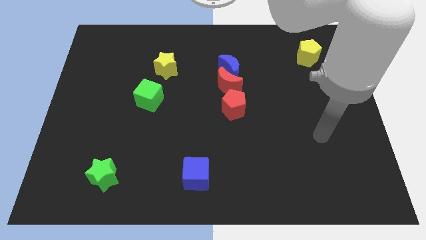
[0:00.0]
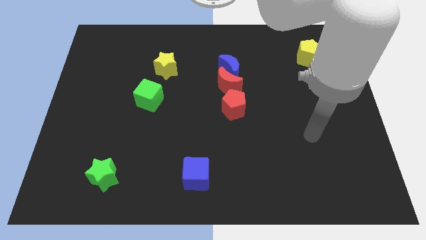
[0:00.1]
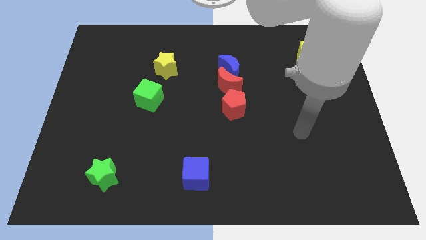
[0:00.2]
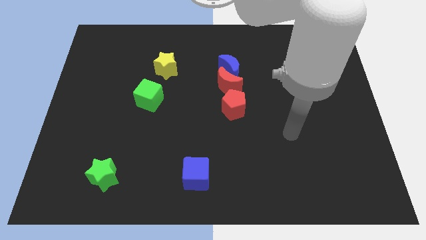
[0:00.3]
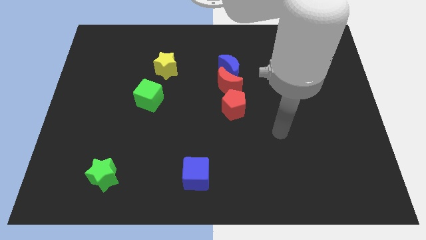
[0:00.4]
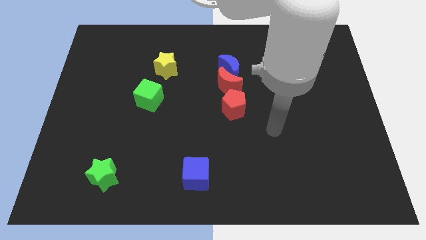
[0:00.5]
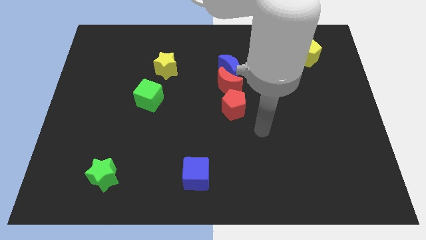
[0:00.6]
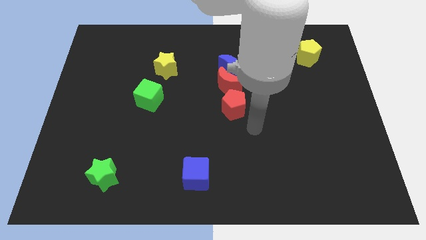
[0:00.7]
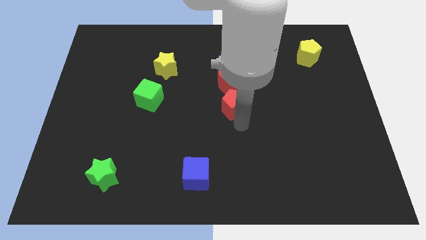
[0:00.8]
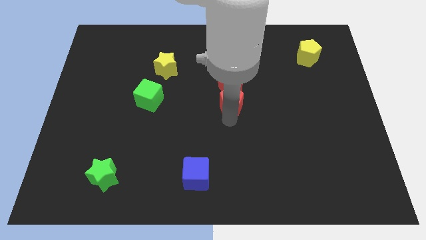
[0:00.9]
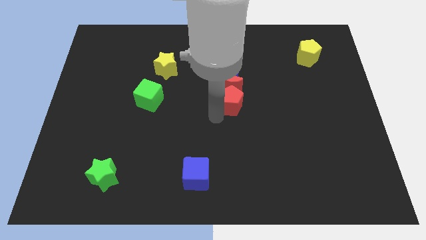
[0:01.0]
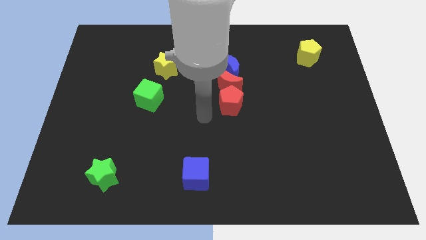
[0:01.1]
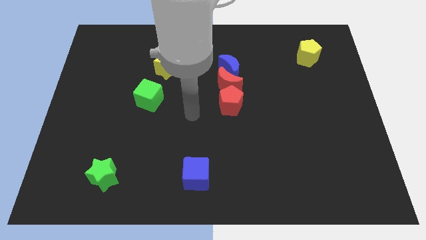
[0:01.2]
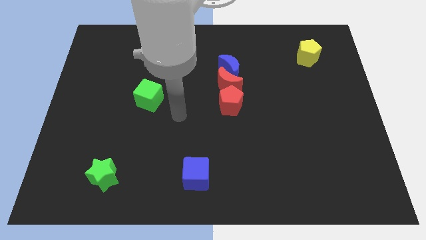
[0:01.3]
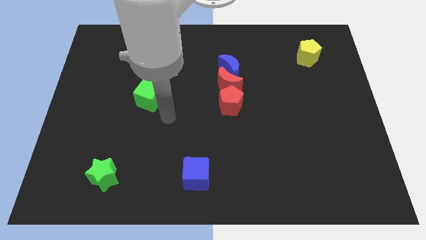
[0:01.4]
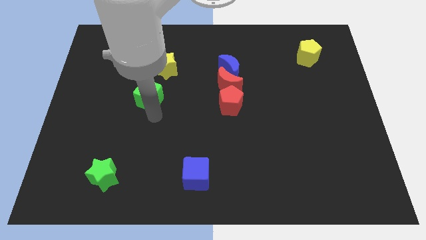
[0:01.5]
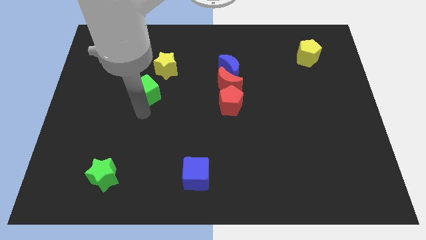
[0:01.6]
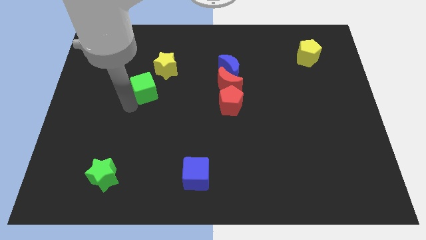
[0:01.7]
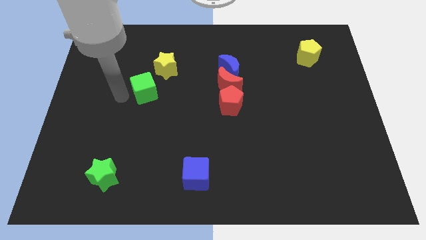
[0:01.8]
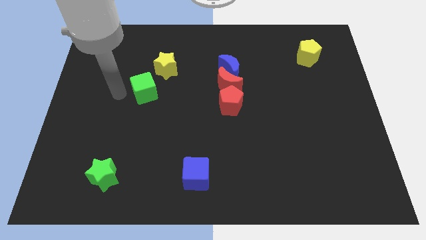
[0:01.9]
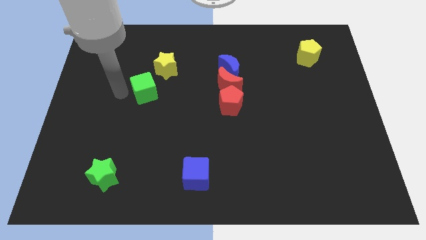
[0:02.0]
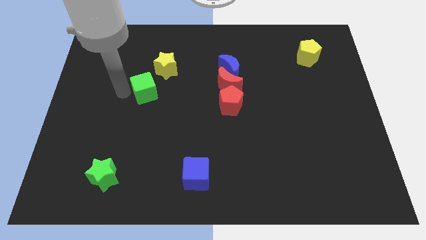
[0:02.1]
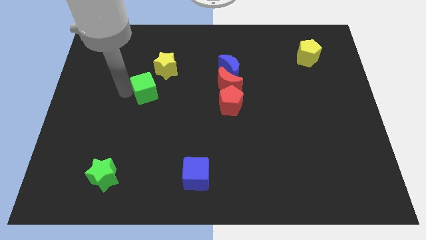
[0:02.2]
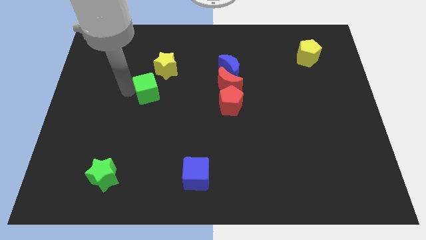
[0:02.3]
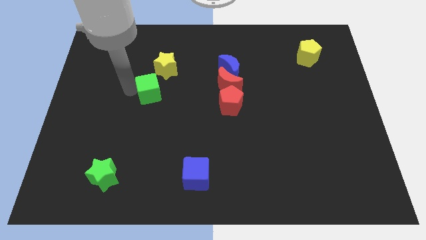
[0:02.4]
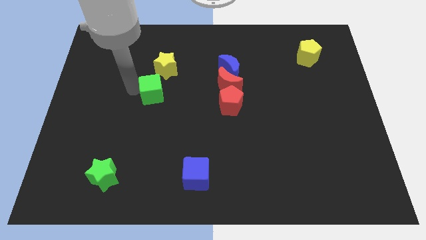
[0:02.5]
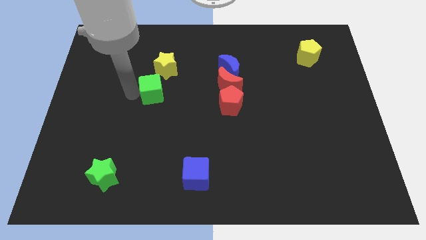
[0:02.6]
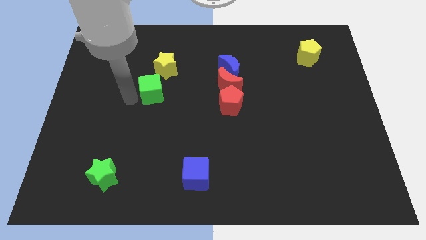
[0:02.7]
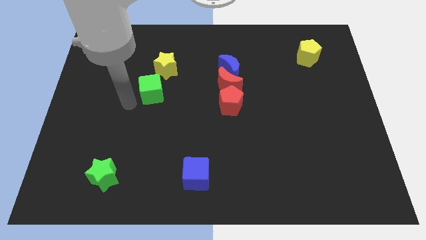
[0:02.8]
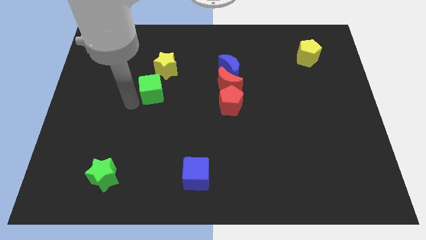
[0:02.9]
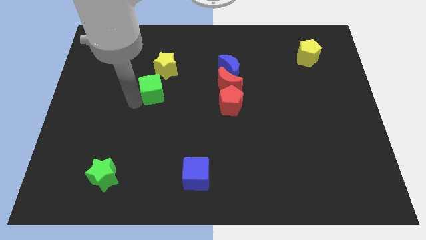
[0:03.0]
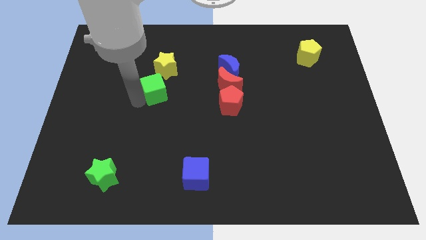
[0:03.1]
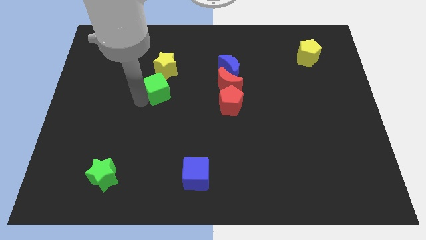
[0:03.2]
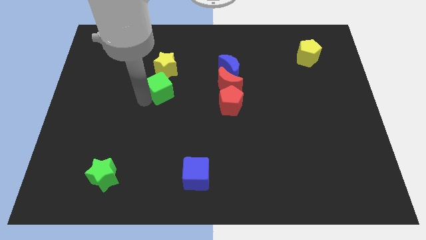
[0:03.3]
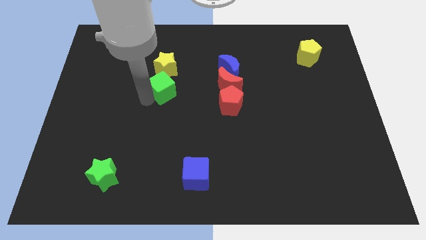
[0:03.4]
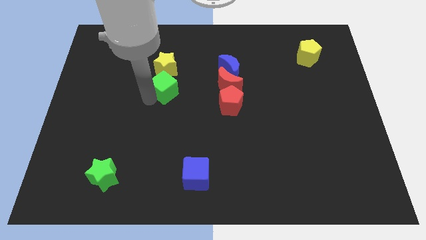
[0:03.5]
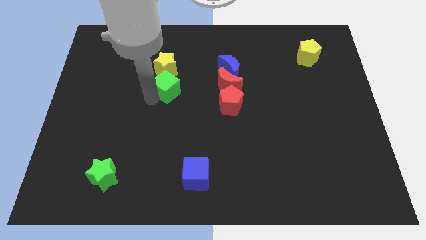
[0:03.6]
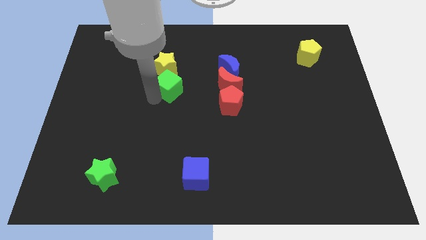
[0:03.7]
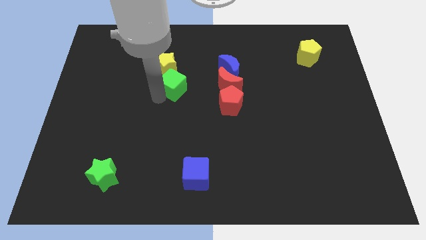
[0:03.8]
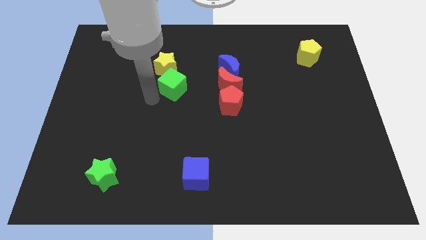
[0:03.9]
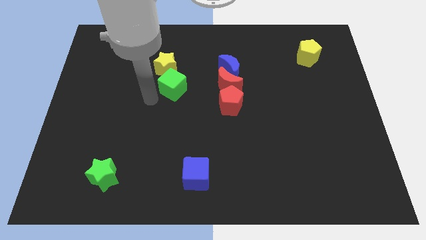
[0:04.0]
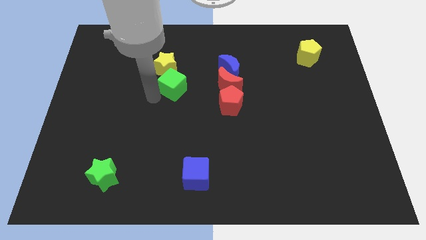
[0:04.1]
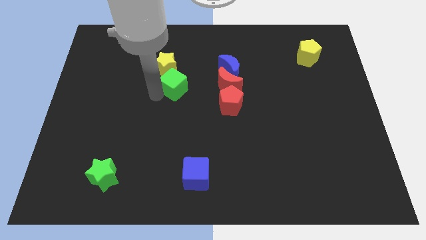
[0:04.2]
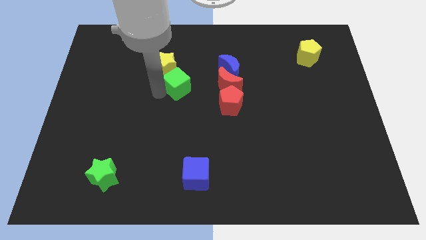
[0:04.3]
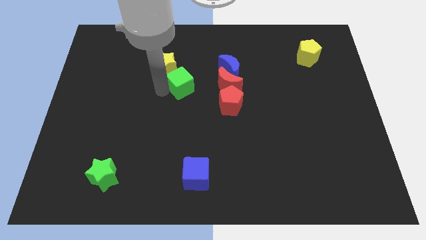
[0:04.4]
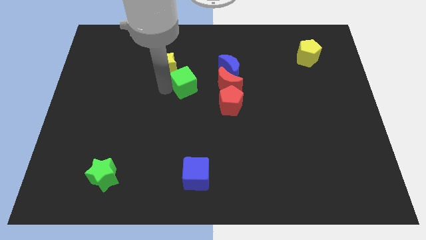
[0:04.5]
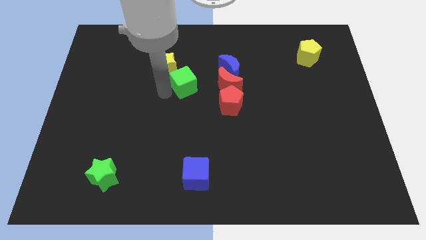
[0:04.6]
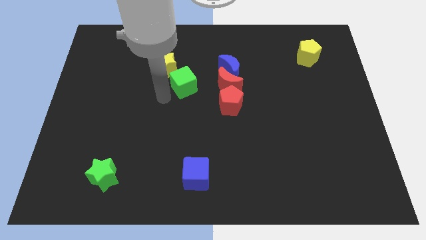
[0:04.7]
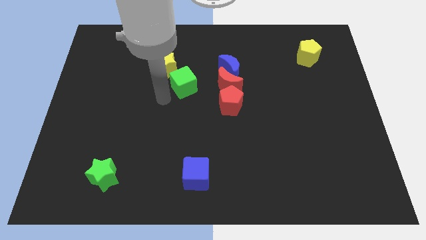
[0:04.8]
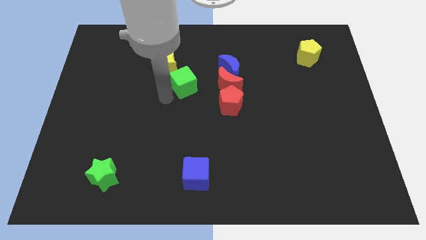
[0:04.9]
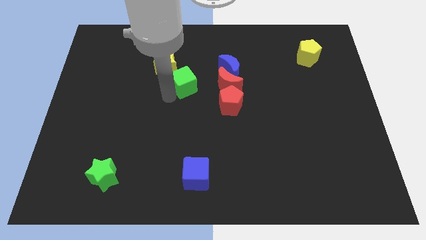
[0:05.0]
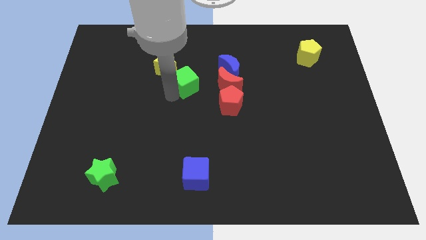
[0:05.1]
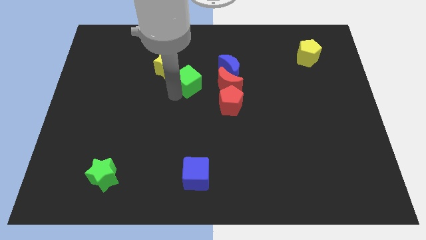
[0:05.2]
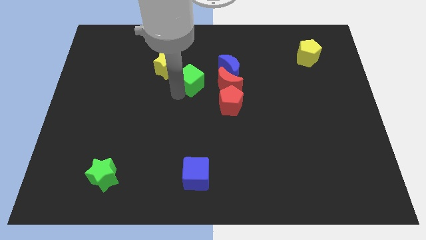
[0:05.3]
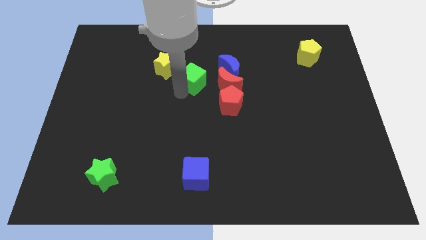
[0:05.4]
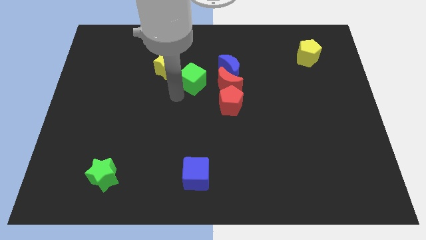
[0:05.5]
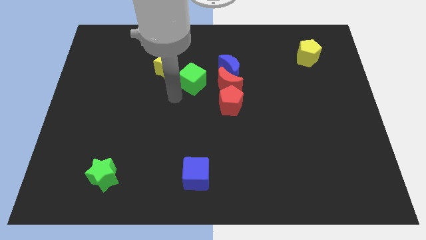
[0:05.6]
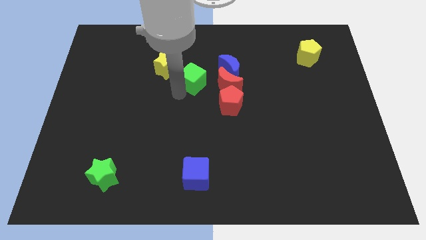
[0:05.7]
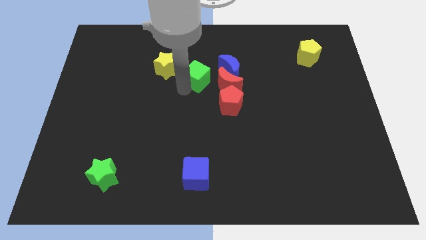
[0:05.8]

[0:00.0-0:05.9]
move the green cube to the top left side of the red moon

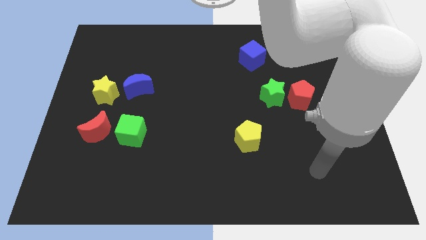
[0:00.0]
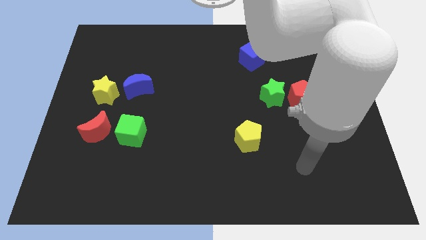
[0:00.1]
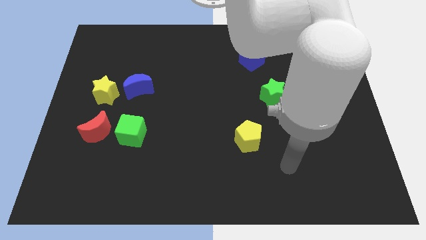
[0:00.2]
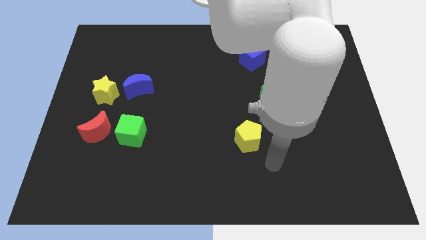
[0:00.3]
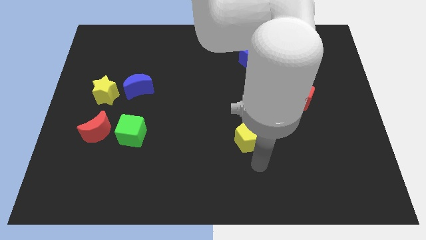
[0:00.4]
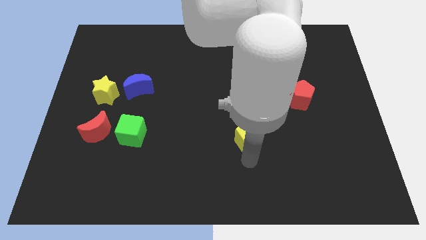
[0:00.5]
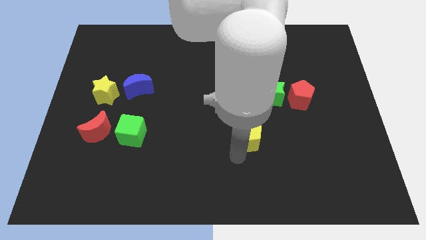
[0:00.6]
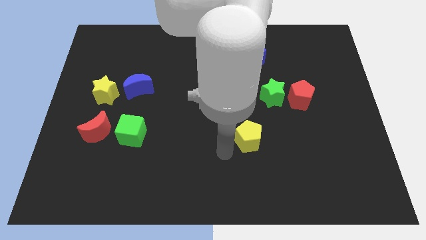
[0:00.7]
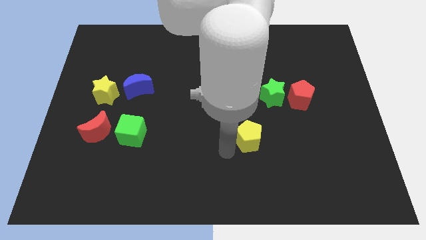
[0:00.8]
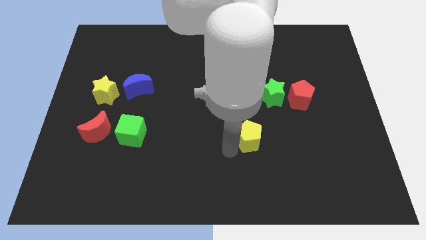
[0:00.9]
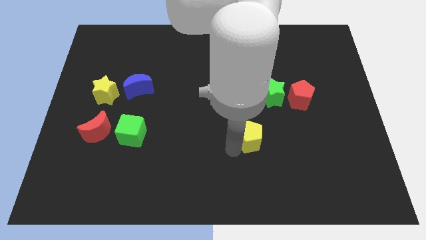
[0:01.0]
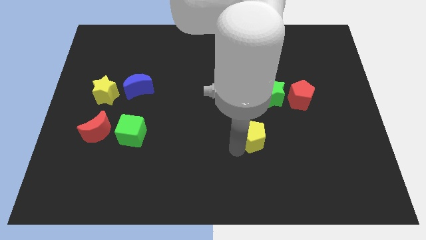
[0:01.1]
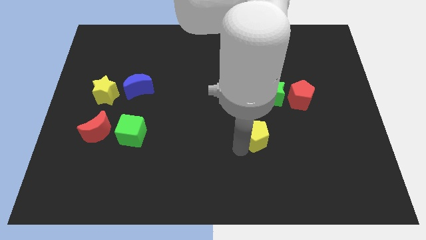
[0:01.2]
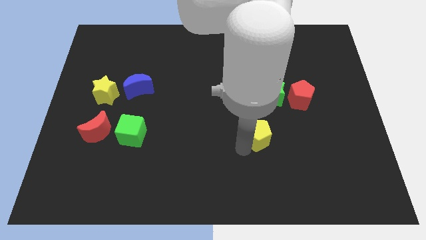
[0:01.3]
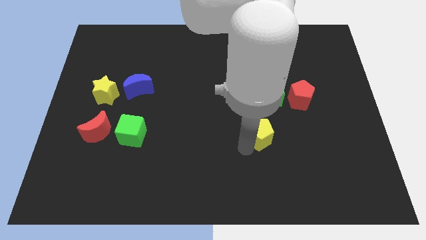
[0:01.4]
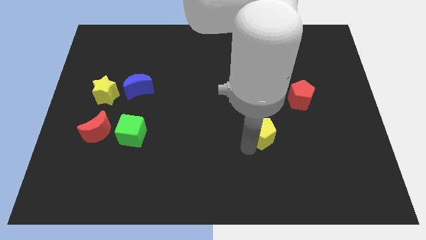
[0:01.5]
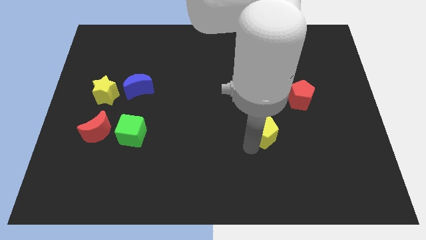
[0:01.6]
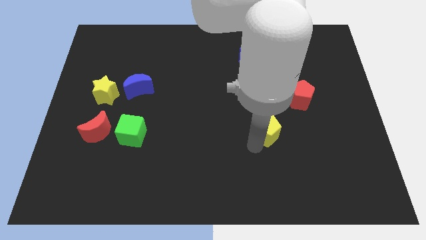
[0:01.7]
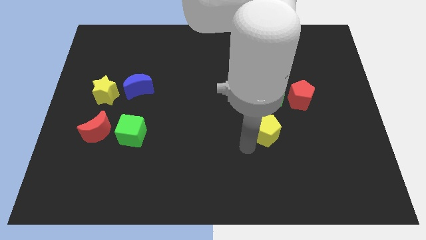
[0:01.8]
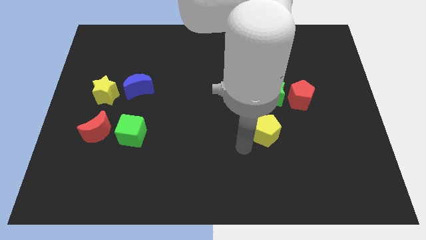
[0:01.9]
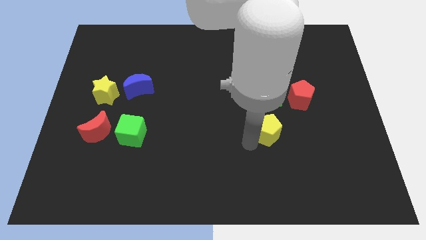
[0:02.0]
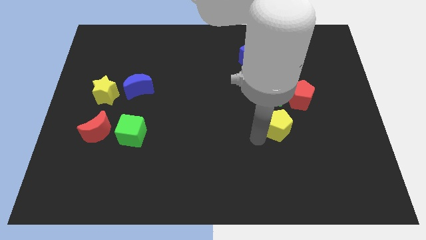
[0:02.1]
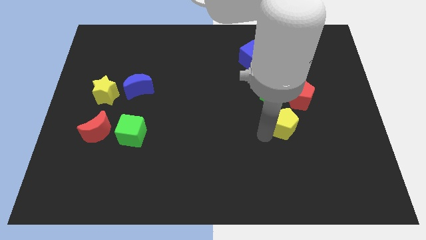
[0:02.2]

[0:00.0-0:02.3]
push the yellow pentagon to the bottom right side of the green star
